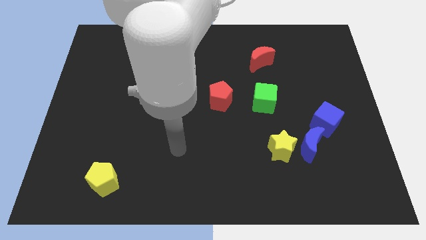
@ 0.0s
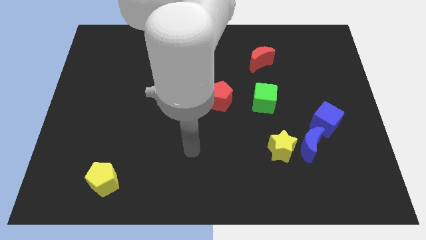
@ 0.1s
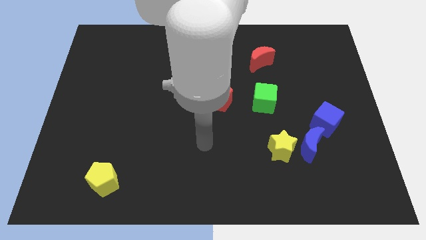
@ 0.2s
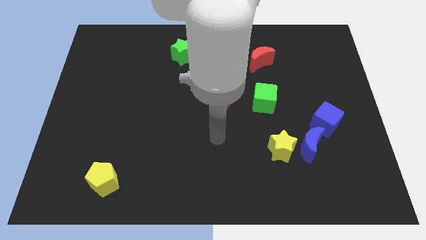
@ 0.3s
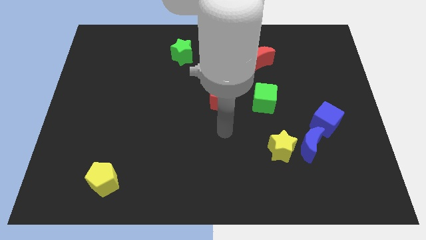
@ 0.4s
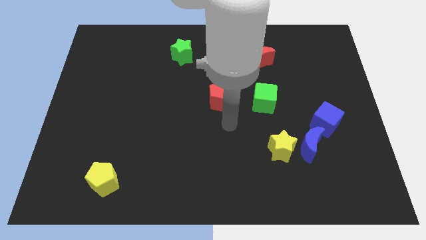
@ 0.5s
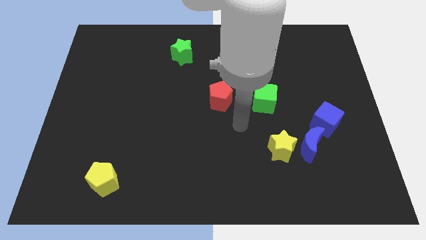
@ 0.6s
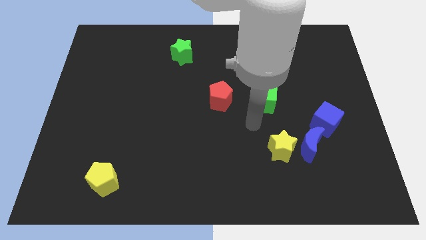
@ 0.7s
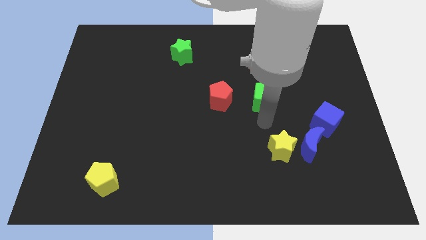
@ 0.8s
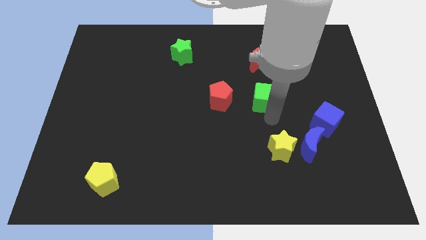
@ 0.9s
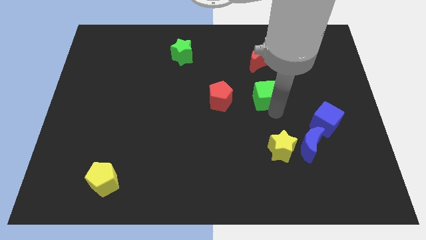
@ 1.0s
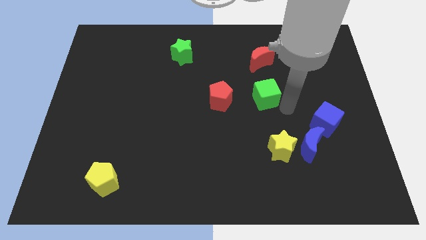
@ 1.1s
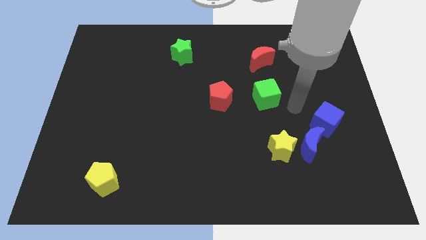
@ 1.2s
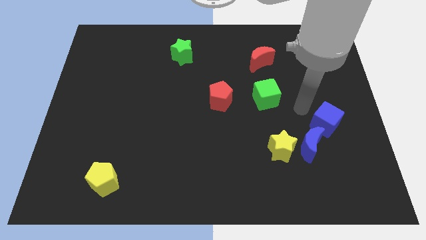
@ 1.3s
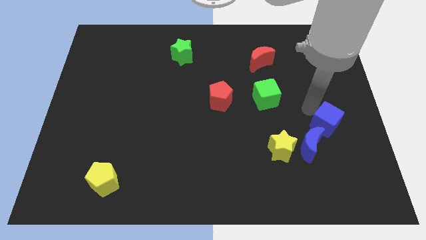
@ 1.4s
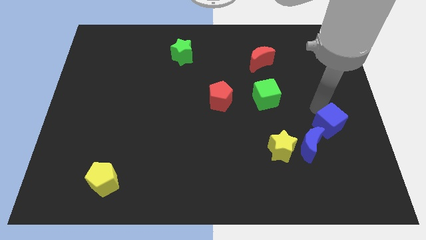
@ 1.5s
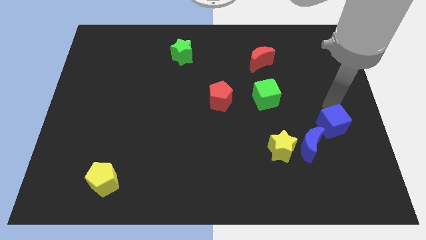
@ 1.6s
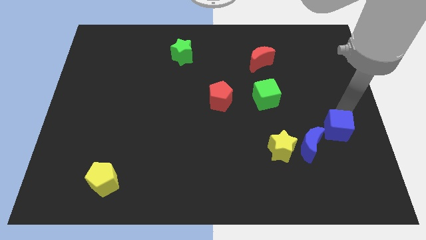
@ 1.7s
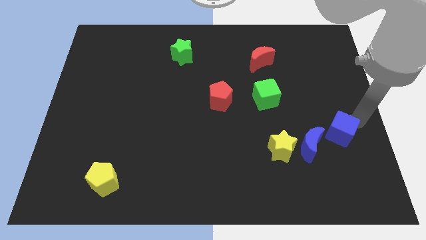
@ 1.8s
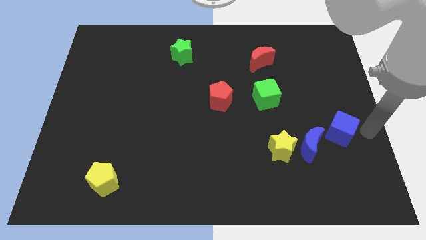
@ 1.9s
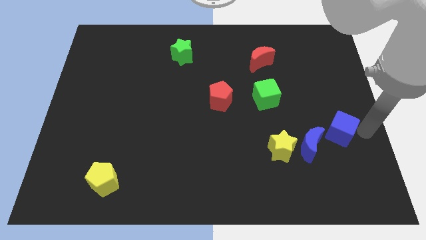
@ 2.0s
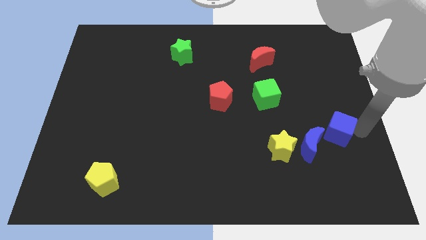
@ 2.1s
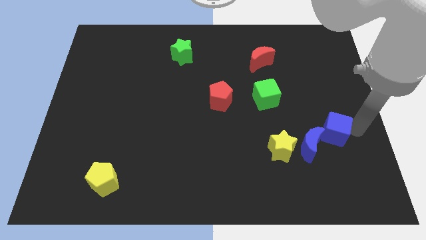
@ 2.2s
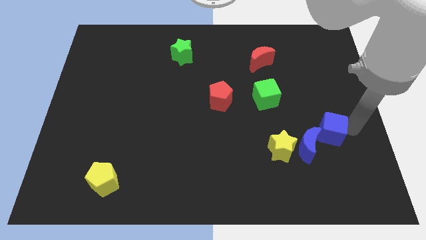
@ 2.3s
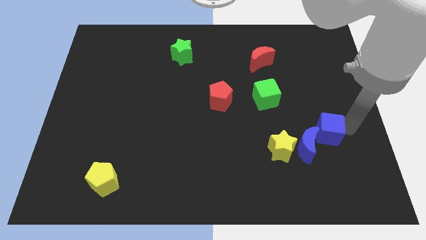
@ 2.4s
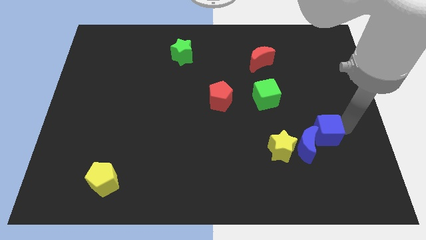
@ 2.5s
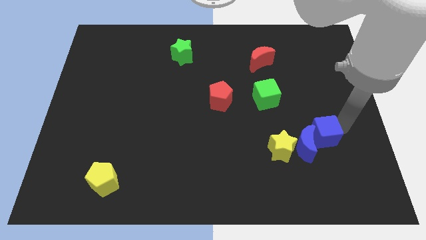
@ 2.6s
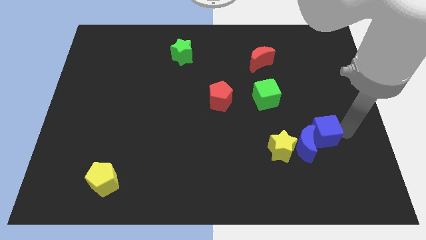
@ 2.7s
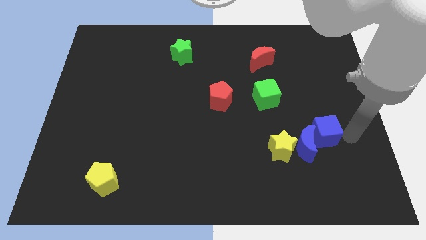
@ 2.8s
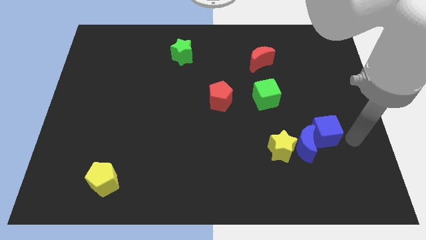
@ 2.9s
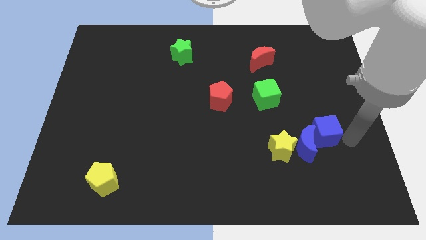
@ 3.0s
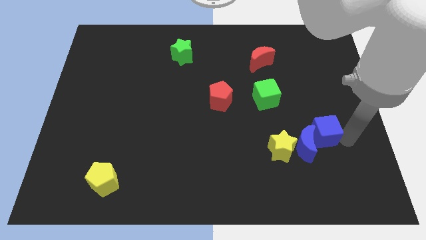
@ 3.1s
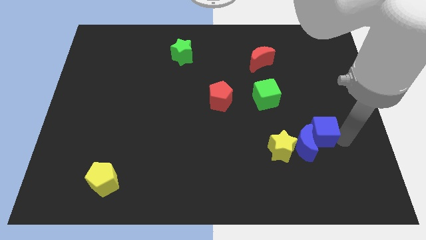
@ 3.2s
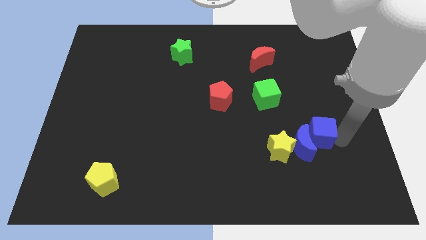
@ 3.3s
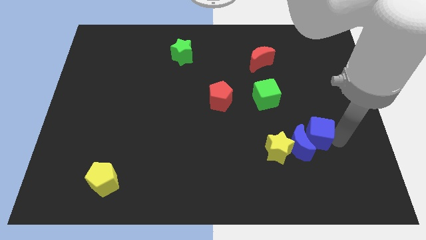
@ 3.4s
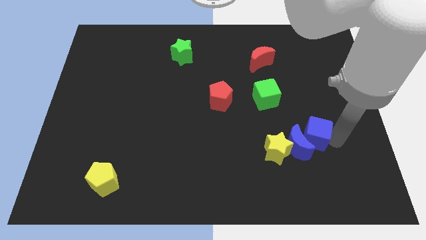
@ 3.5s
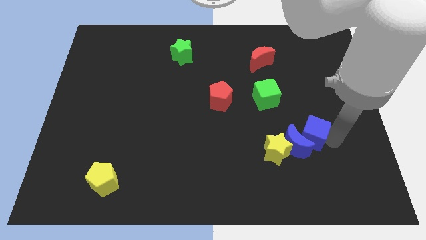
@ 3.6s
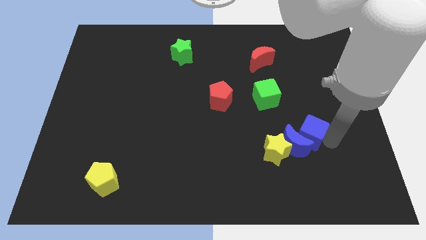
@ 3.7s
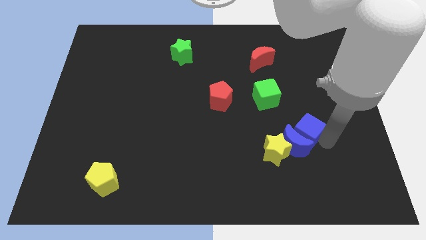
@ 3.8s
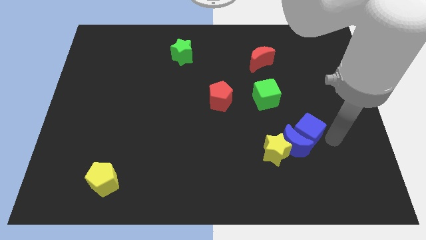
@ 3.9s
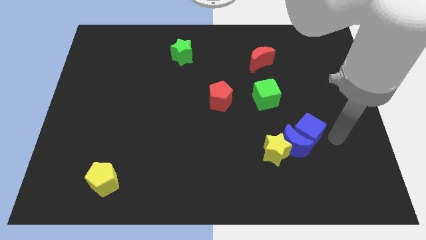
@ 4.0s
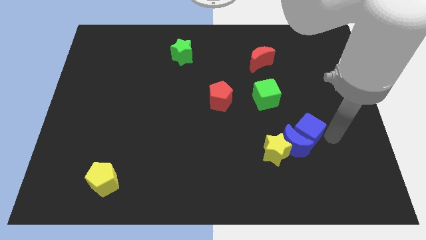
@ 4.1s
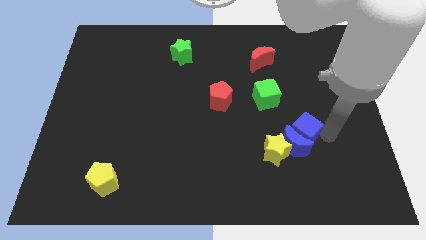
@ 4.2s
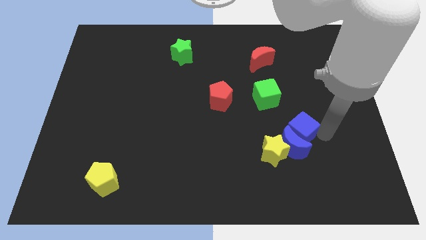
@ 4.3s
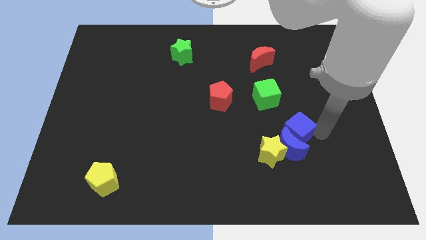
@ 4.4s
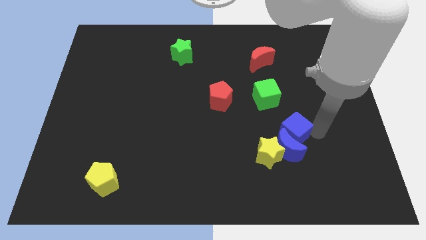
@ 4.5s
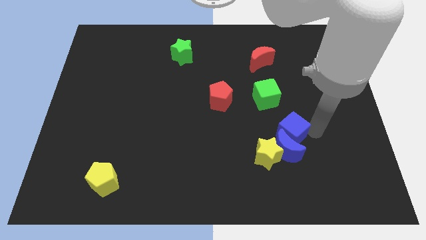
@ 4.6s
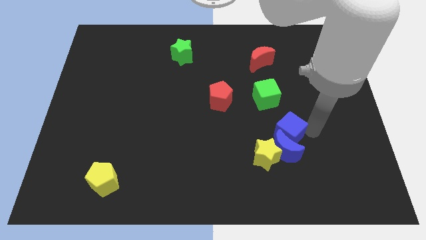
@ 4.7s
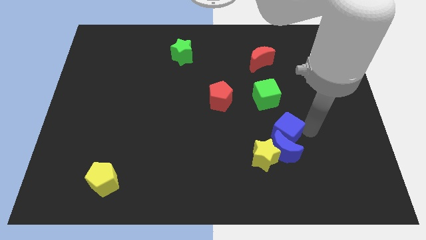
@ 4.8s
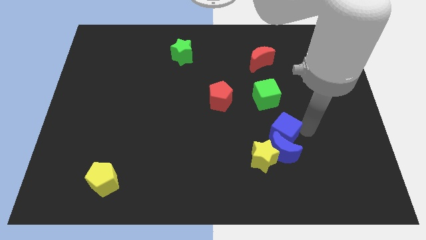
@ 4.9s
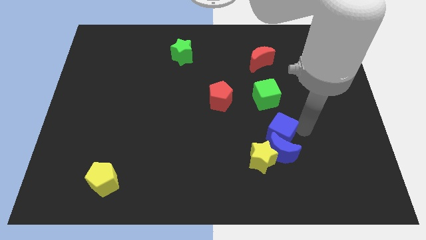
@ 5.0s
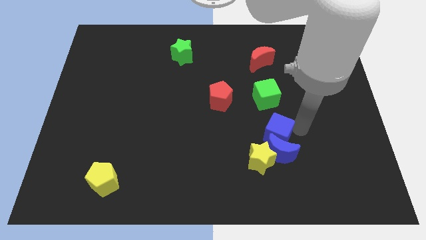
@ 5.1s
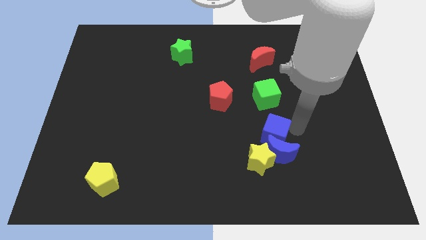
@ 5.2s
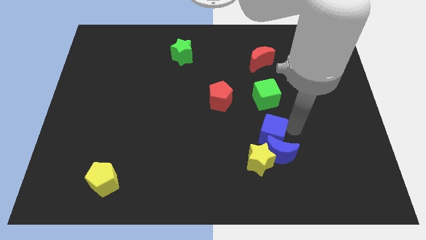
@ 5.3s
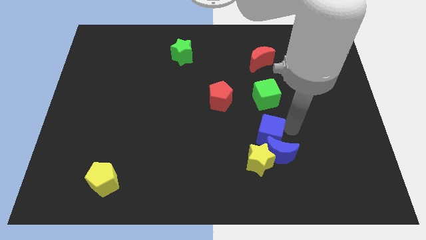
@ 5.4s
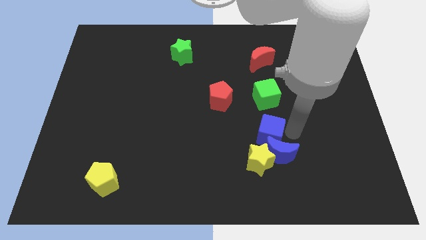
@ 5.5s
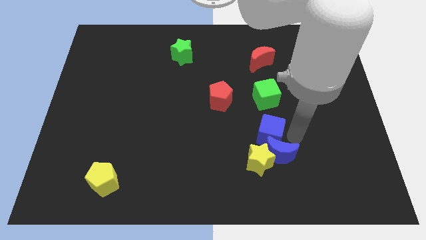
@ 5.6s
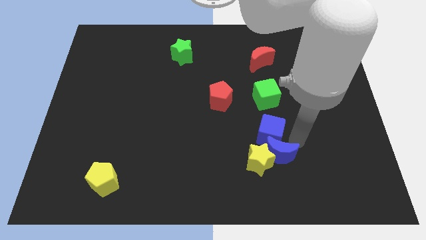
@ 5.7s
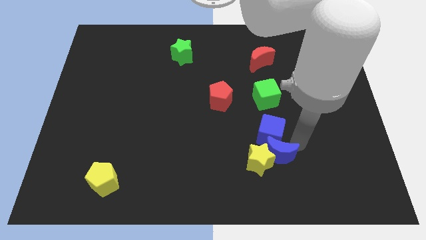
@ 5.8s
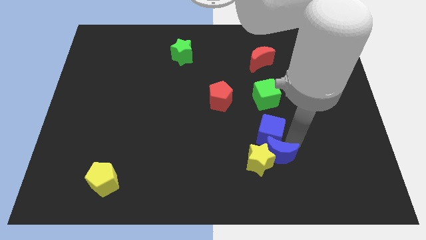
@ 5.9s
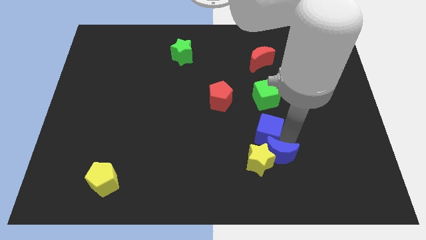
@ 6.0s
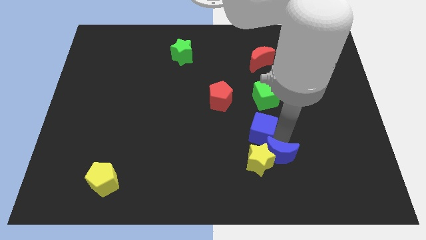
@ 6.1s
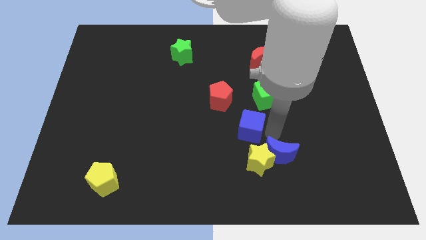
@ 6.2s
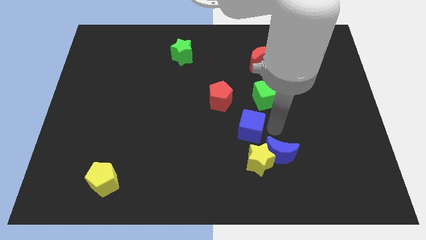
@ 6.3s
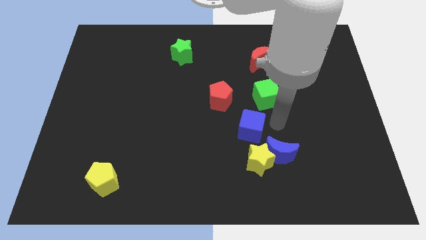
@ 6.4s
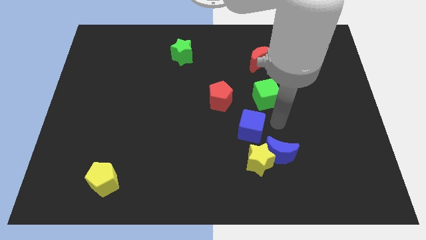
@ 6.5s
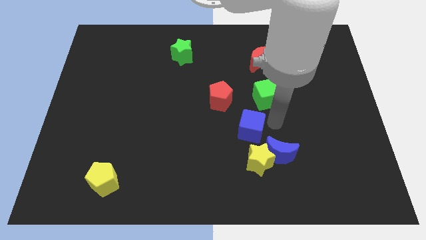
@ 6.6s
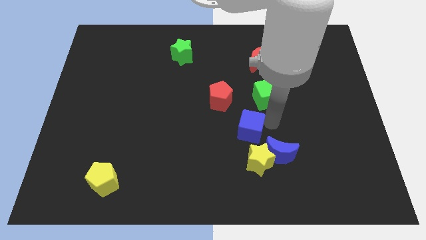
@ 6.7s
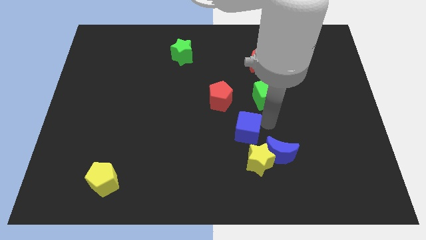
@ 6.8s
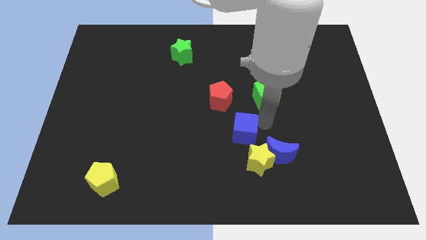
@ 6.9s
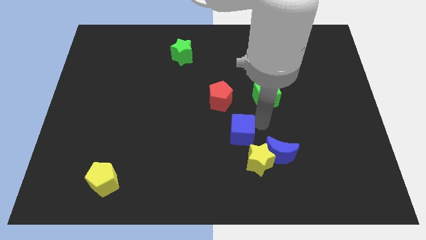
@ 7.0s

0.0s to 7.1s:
slide the blue cube to the bottom of the red pentagon
